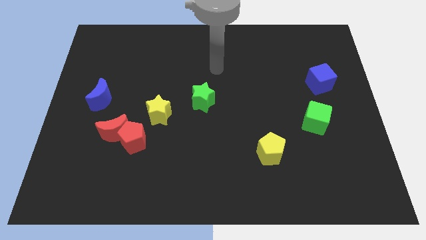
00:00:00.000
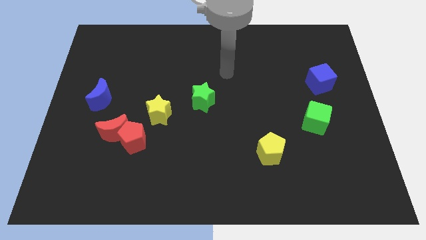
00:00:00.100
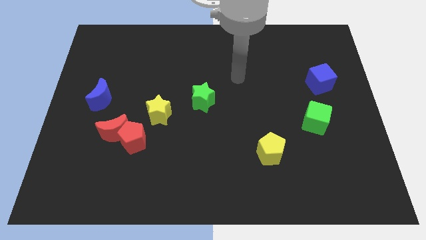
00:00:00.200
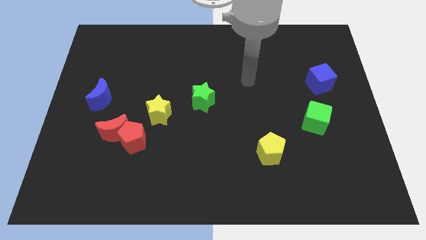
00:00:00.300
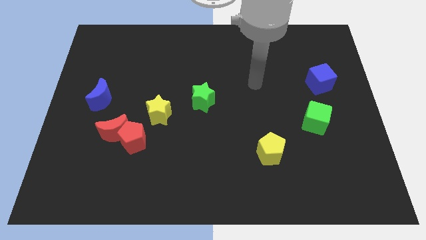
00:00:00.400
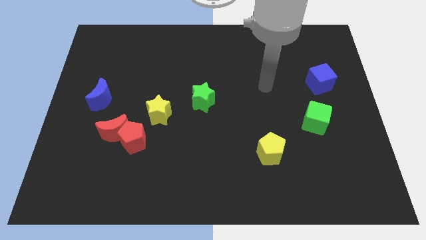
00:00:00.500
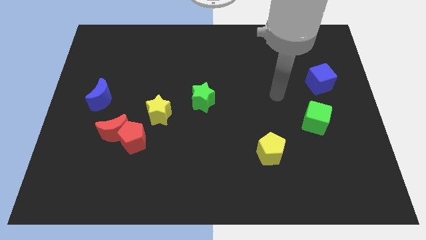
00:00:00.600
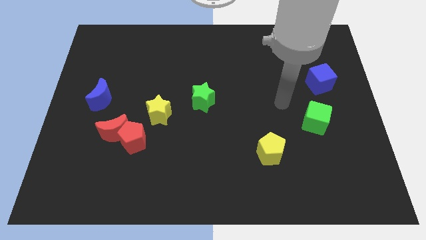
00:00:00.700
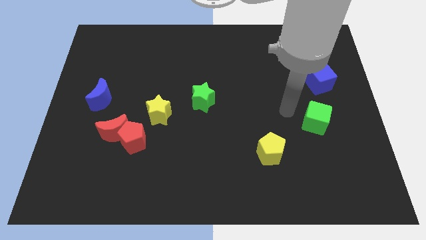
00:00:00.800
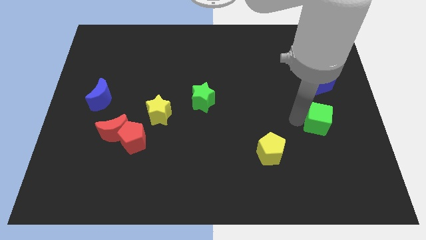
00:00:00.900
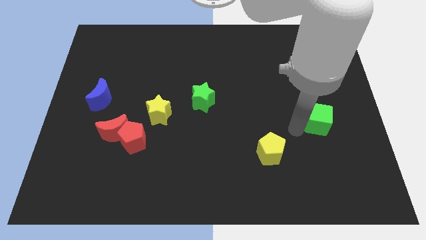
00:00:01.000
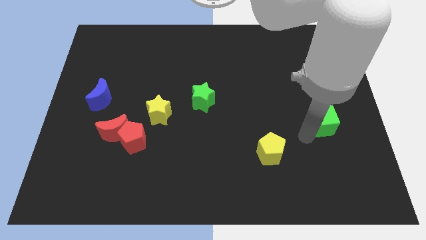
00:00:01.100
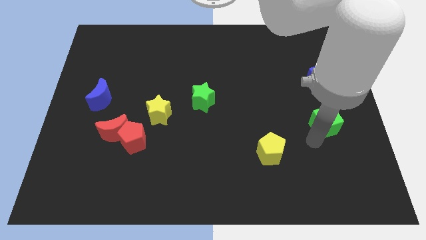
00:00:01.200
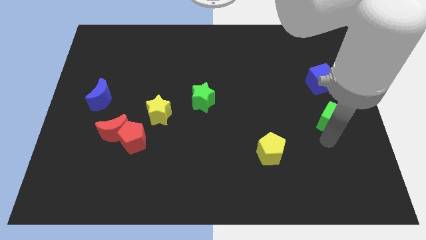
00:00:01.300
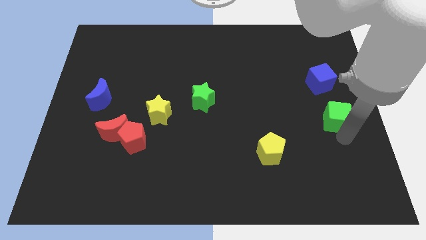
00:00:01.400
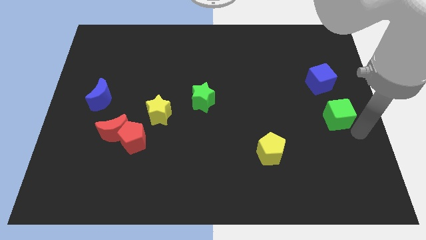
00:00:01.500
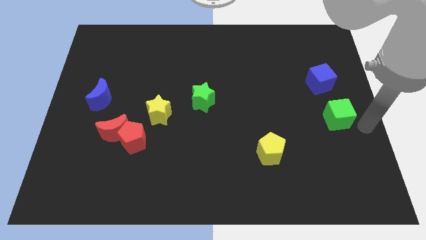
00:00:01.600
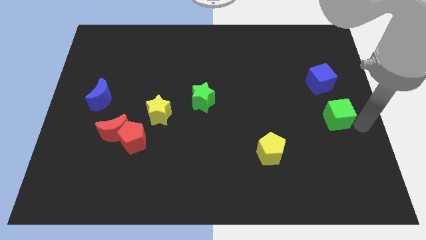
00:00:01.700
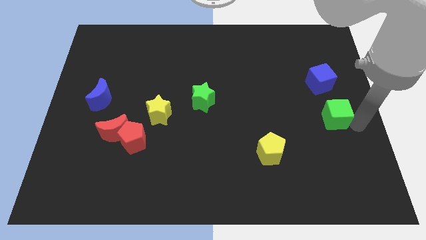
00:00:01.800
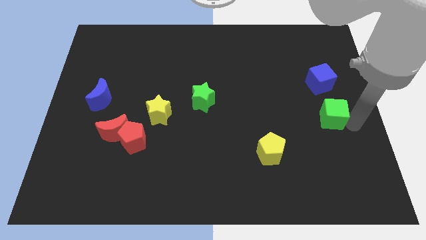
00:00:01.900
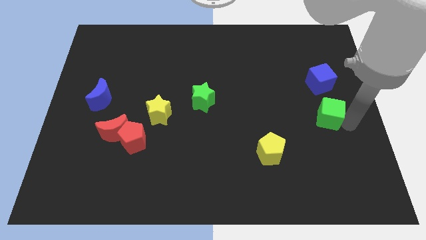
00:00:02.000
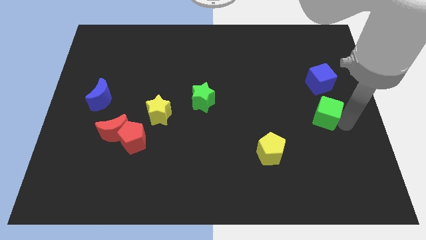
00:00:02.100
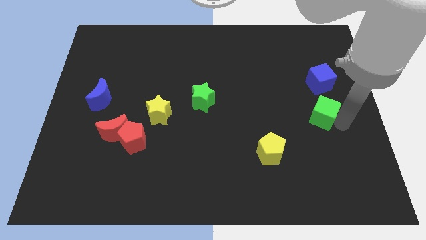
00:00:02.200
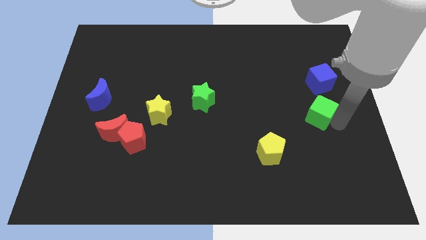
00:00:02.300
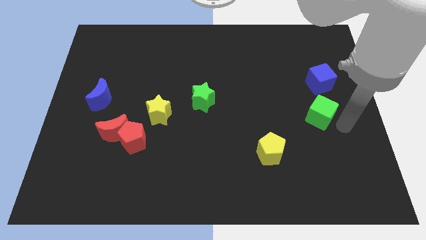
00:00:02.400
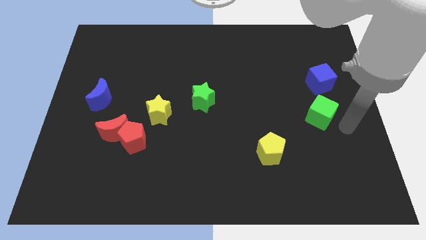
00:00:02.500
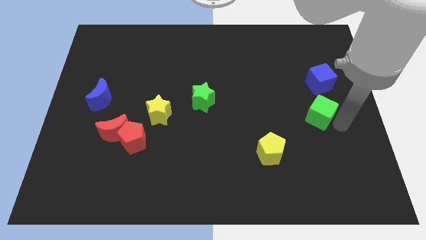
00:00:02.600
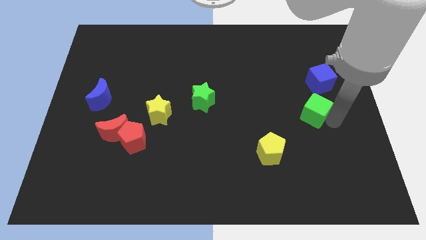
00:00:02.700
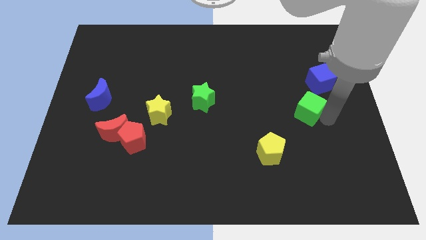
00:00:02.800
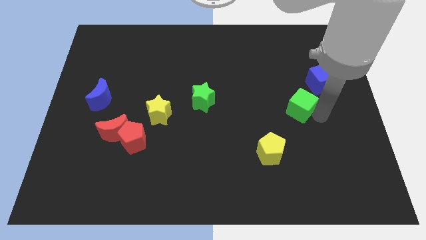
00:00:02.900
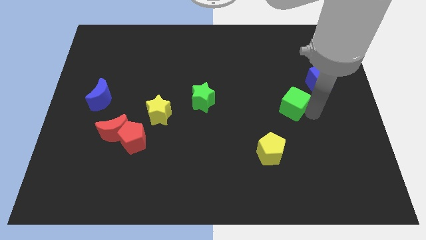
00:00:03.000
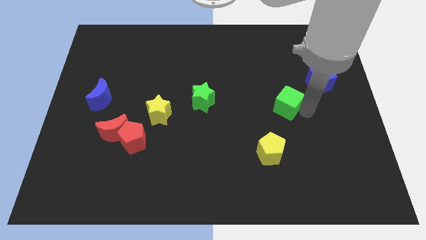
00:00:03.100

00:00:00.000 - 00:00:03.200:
slide the green cube a little bit up and left

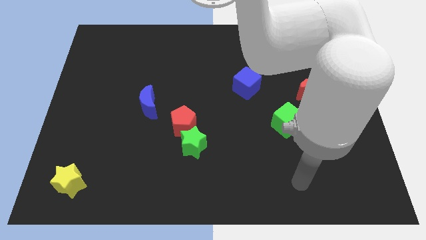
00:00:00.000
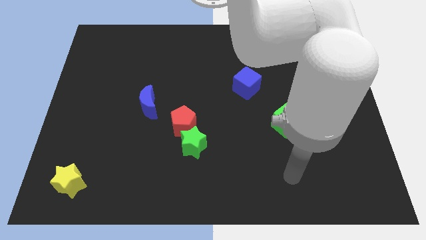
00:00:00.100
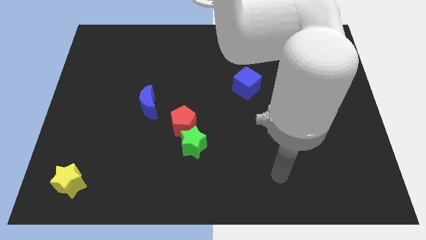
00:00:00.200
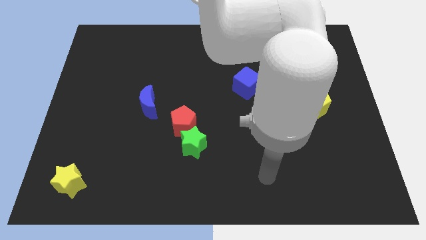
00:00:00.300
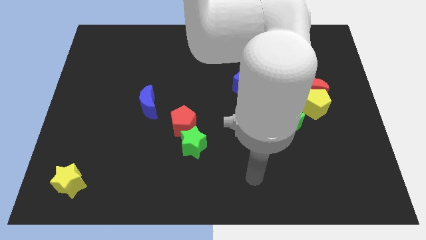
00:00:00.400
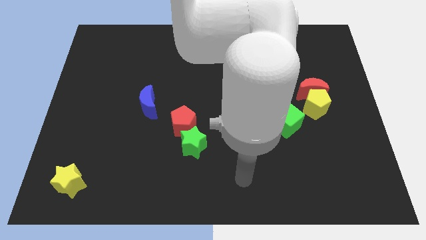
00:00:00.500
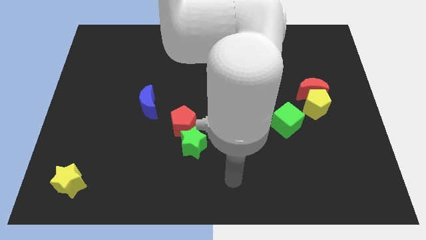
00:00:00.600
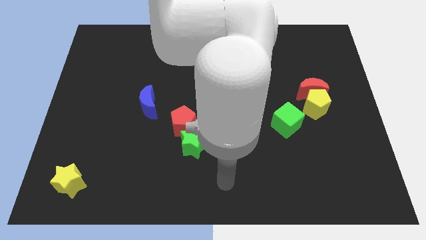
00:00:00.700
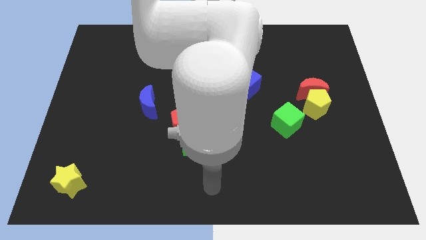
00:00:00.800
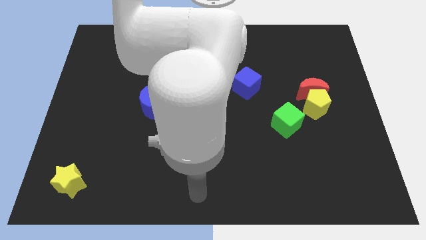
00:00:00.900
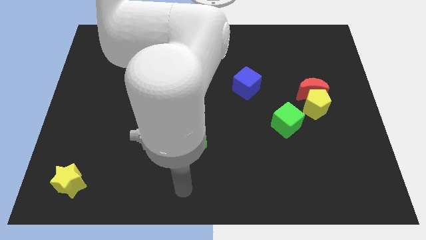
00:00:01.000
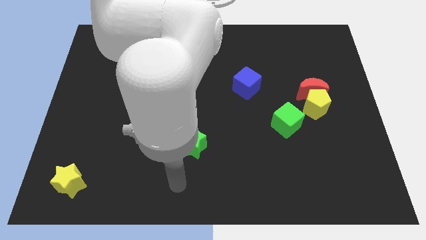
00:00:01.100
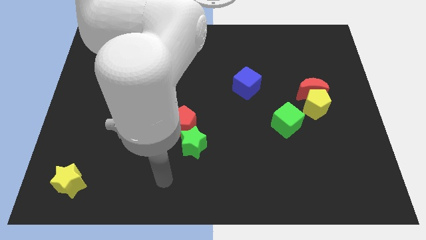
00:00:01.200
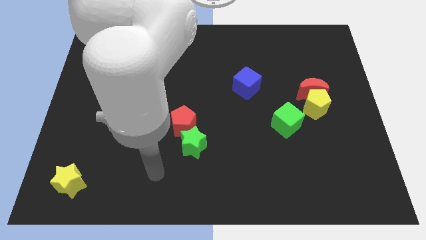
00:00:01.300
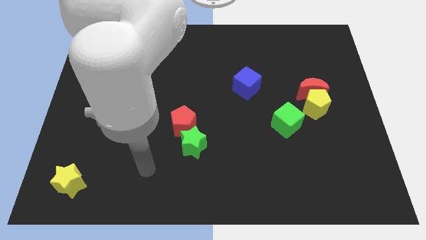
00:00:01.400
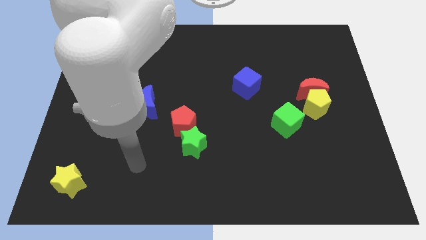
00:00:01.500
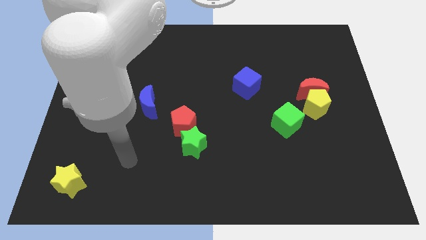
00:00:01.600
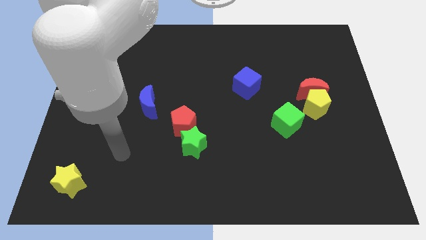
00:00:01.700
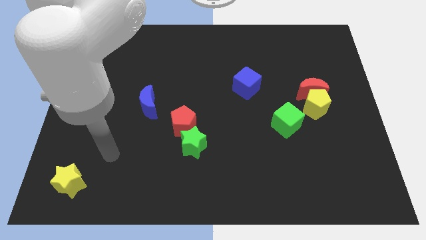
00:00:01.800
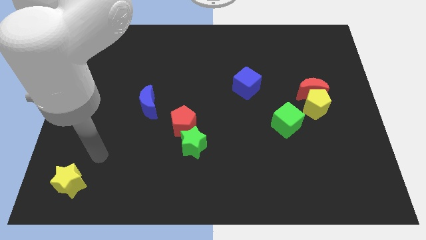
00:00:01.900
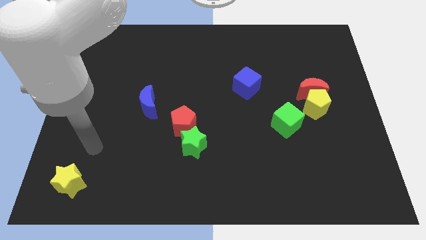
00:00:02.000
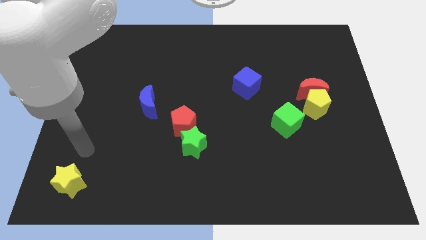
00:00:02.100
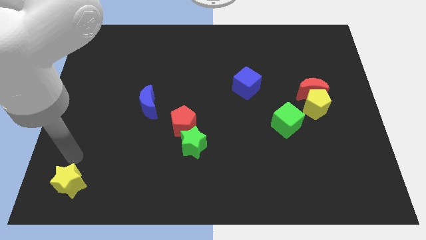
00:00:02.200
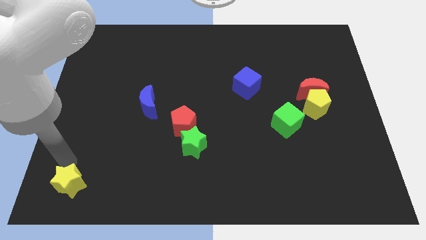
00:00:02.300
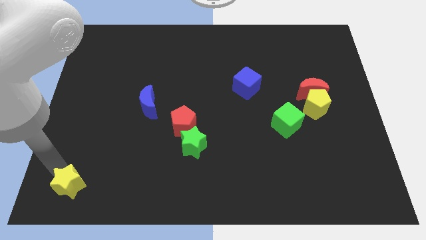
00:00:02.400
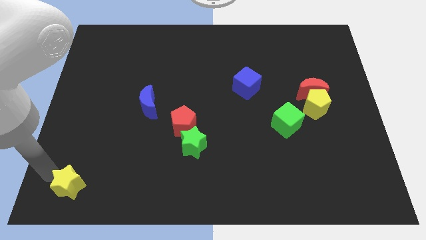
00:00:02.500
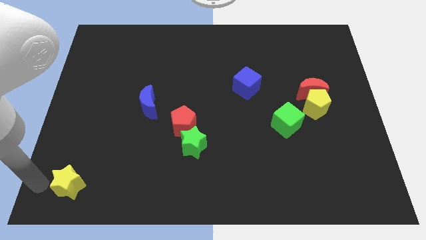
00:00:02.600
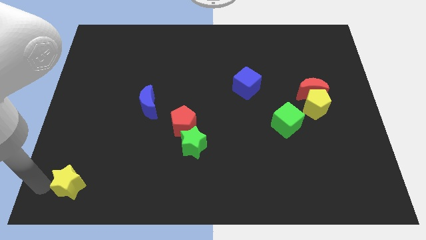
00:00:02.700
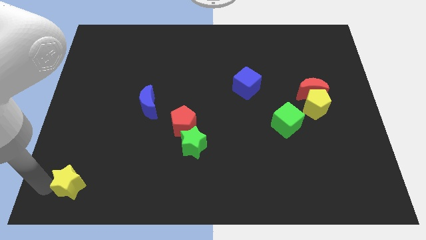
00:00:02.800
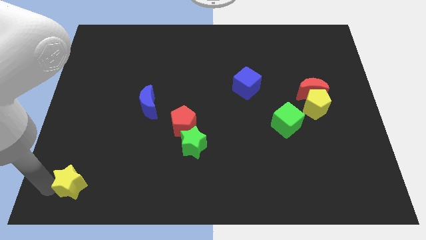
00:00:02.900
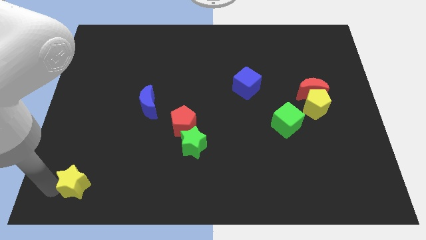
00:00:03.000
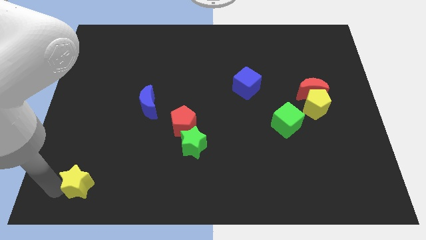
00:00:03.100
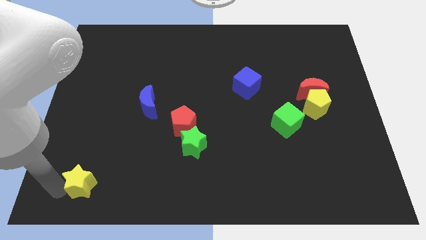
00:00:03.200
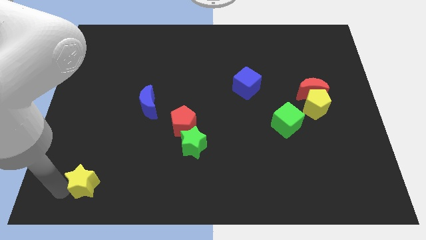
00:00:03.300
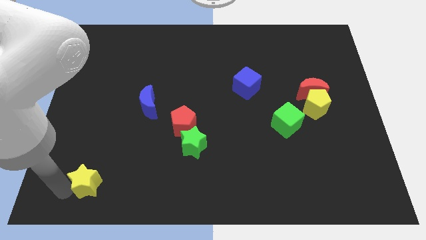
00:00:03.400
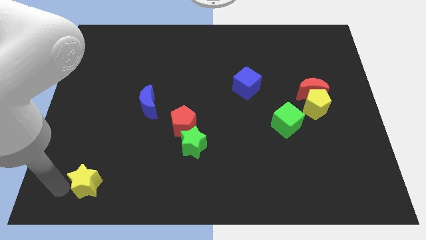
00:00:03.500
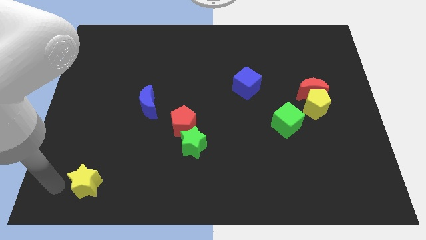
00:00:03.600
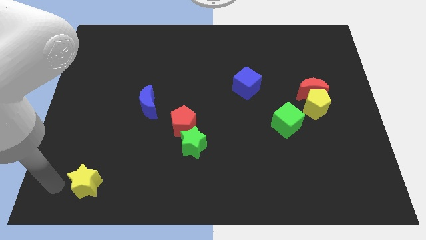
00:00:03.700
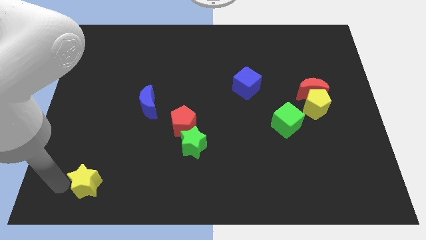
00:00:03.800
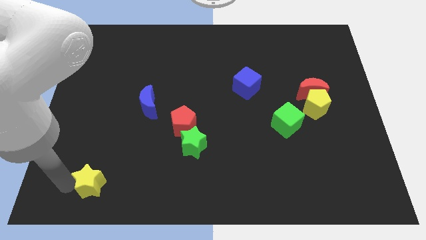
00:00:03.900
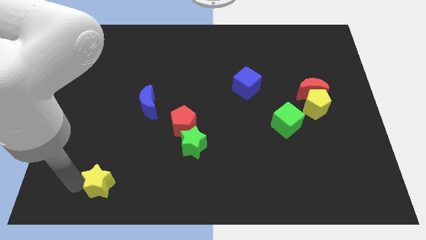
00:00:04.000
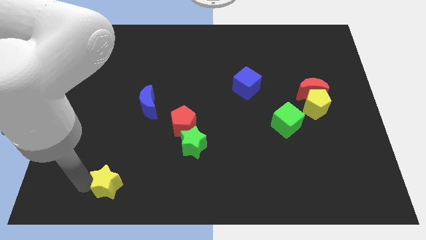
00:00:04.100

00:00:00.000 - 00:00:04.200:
push the yellow star right somewhat

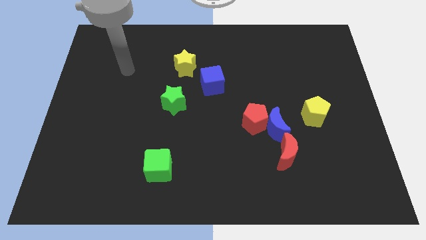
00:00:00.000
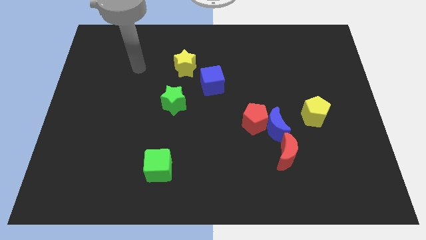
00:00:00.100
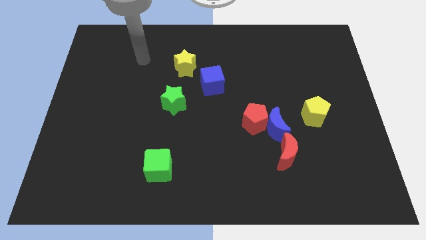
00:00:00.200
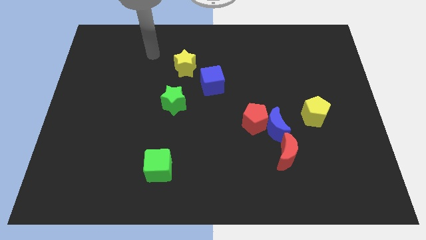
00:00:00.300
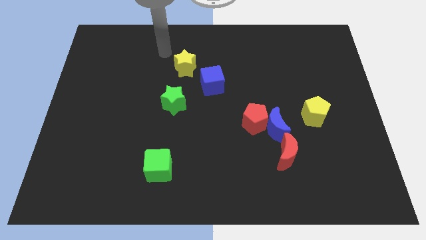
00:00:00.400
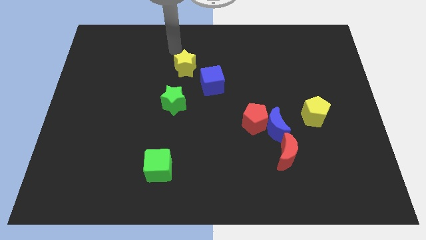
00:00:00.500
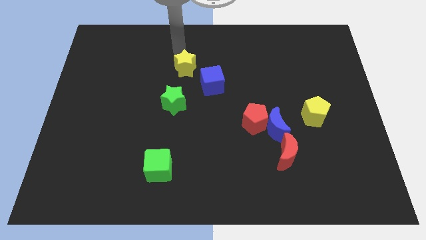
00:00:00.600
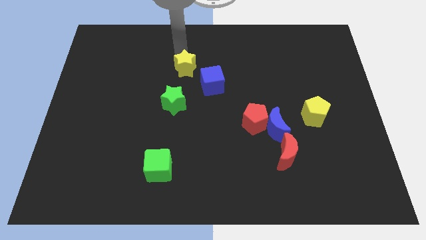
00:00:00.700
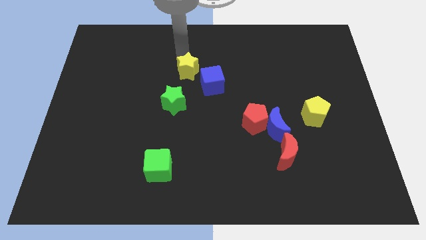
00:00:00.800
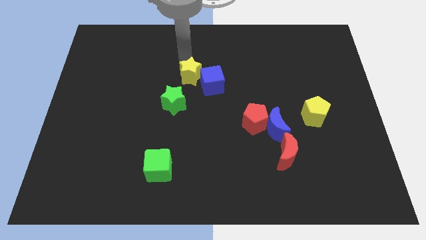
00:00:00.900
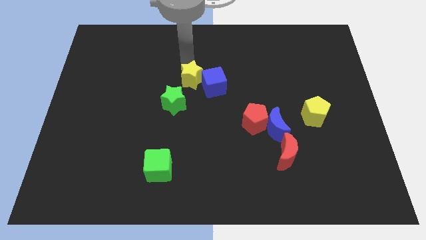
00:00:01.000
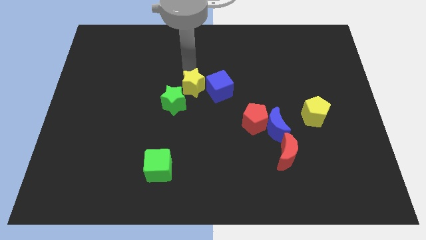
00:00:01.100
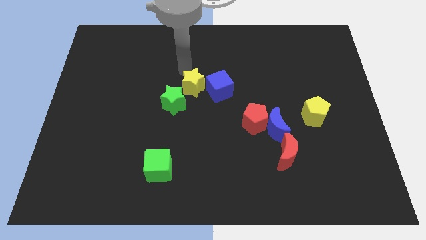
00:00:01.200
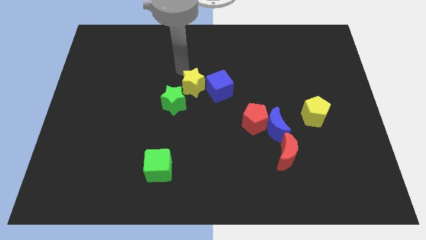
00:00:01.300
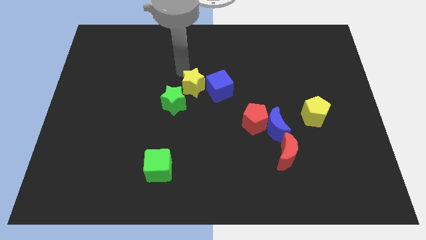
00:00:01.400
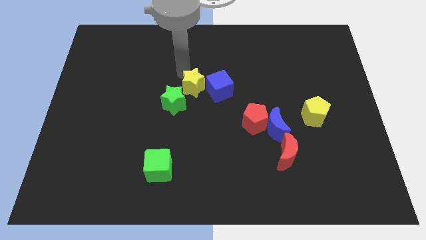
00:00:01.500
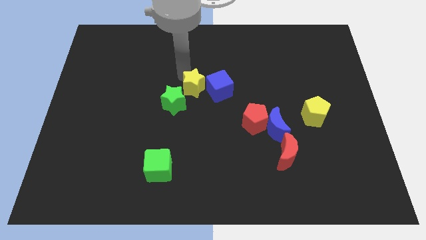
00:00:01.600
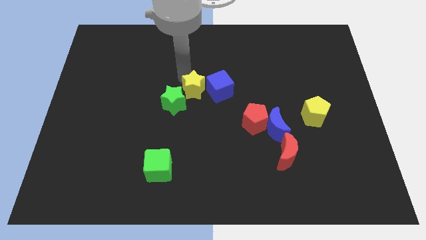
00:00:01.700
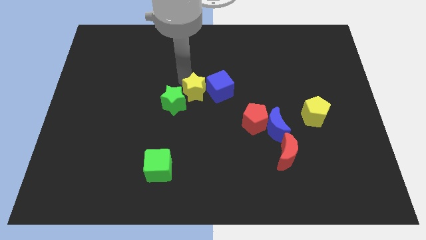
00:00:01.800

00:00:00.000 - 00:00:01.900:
move the yellow star diagonally downwards and right a bit
